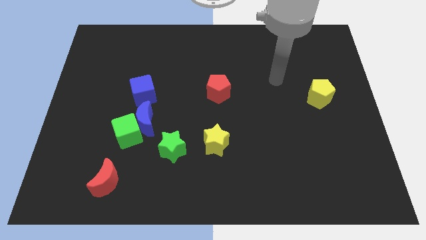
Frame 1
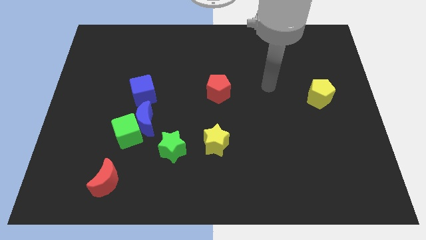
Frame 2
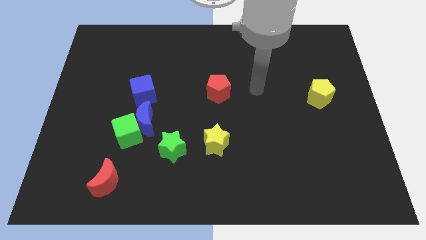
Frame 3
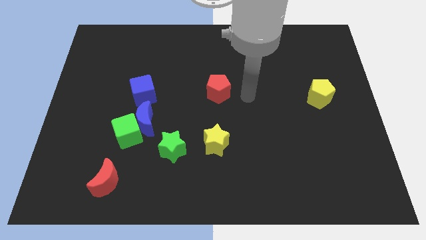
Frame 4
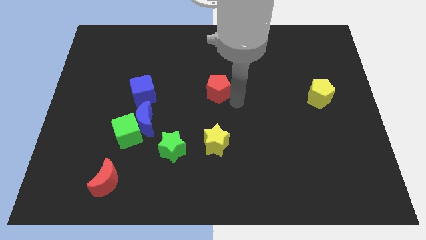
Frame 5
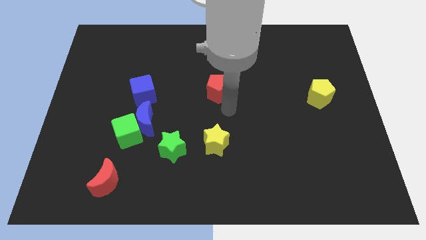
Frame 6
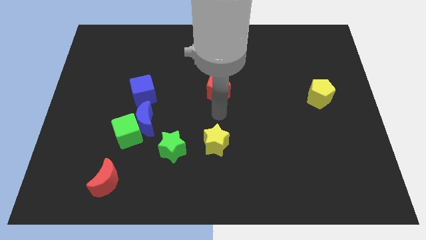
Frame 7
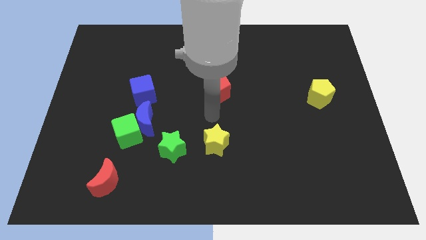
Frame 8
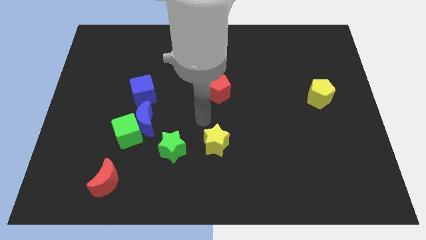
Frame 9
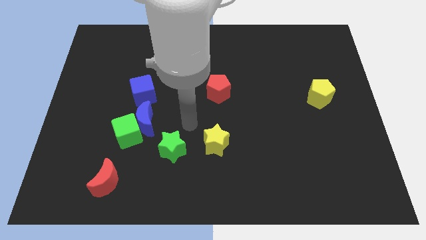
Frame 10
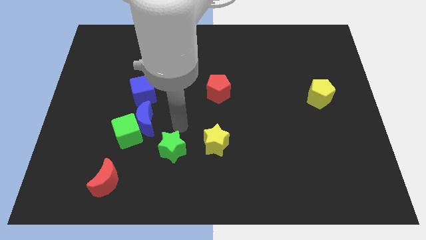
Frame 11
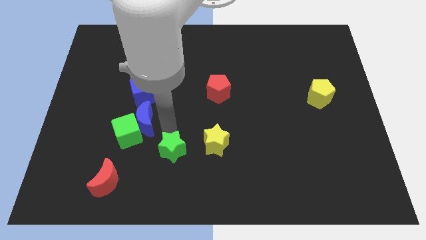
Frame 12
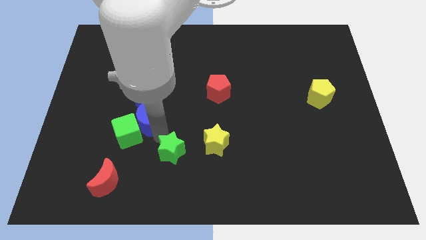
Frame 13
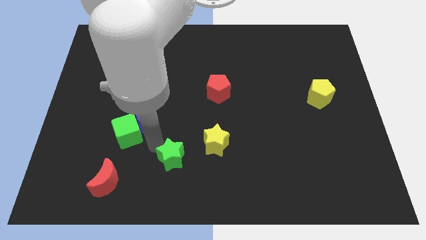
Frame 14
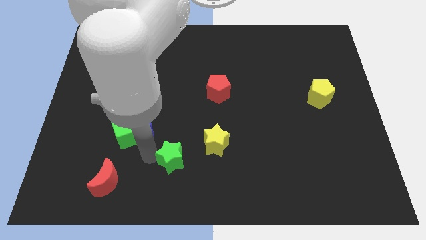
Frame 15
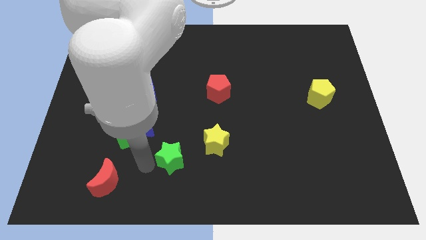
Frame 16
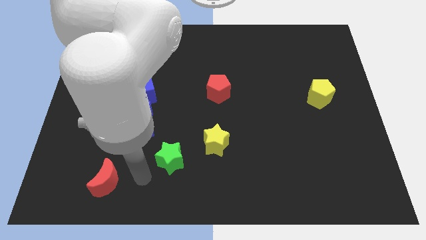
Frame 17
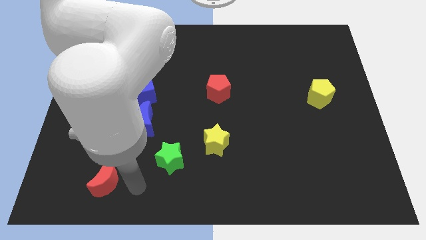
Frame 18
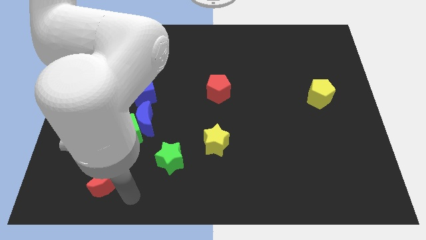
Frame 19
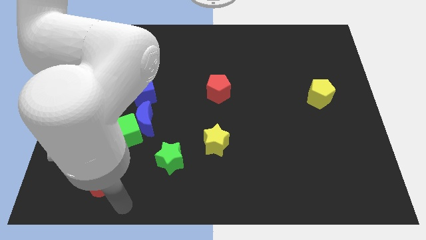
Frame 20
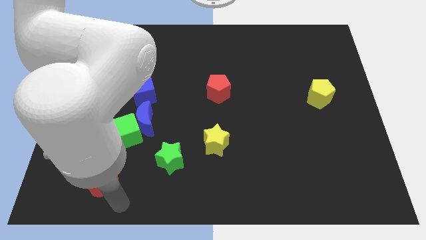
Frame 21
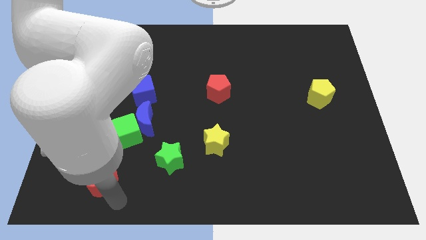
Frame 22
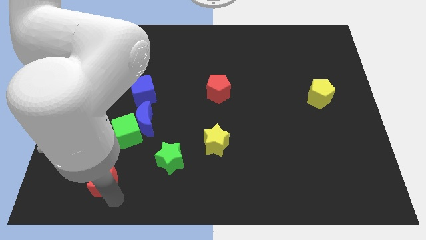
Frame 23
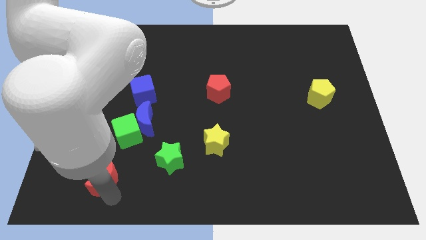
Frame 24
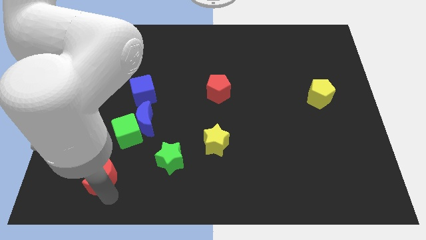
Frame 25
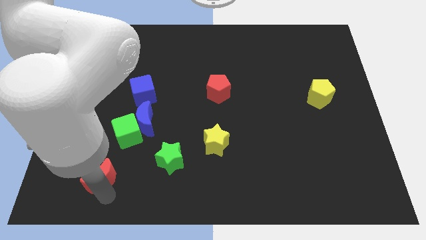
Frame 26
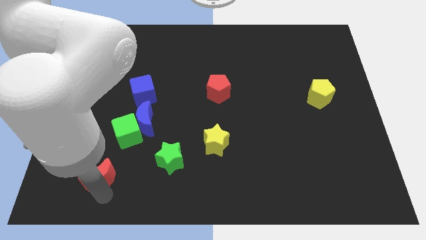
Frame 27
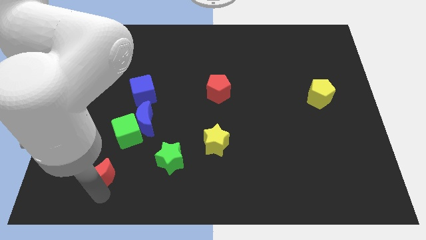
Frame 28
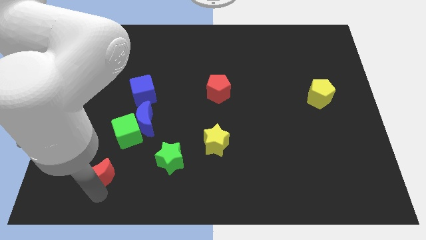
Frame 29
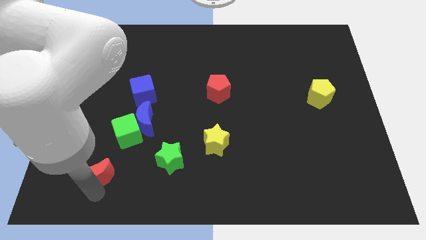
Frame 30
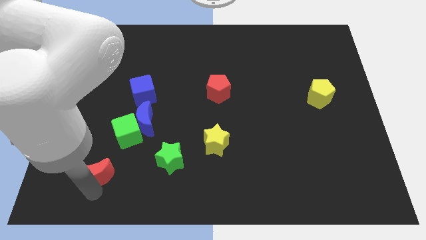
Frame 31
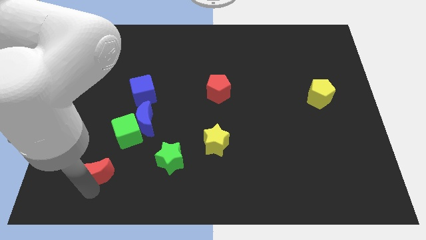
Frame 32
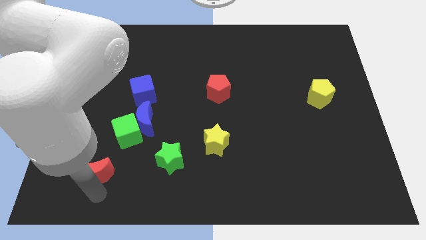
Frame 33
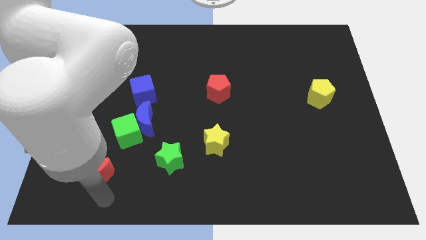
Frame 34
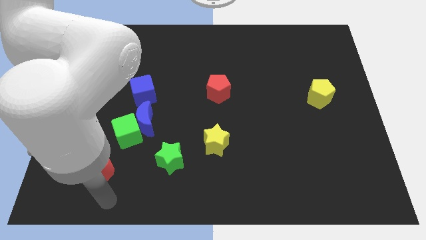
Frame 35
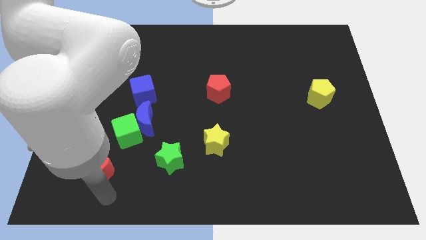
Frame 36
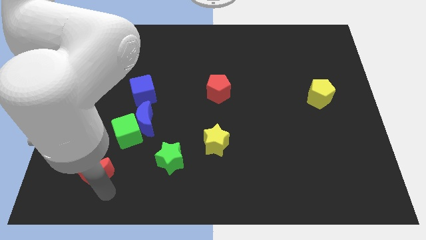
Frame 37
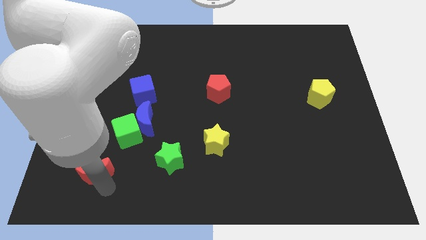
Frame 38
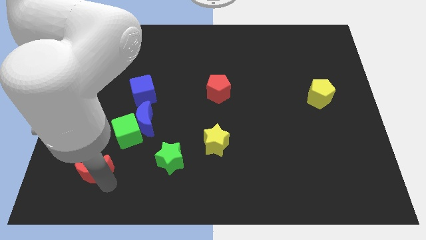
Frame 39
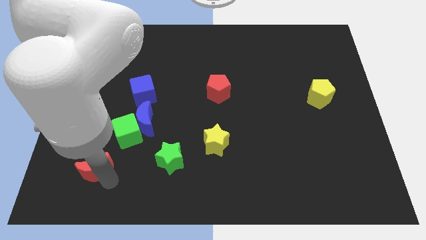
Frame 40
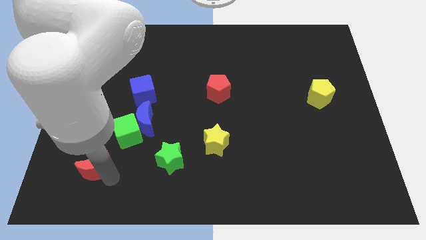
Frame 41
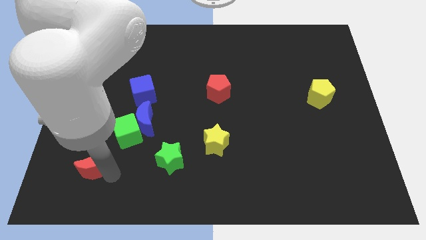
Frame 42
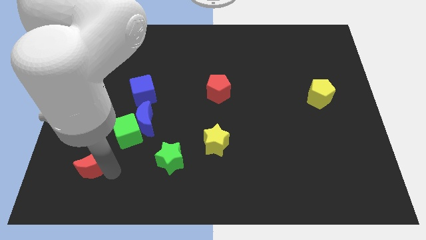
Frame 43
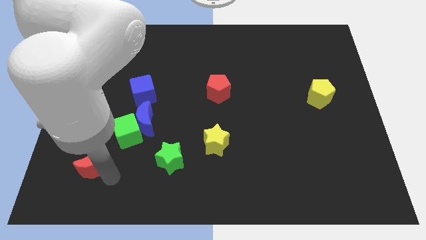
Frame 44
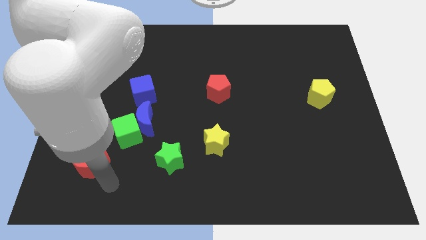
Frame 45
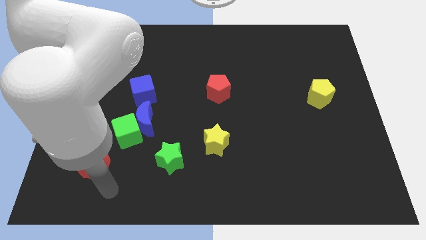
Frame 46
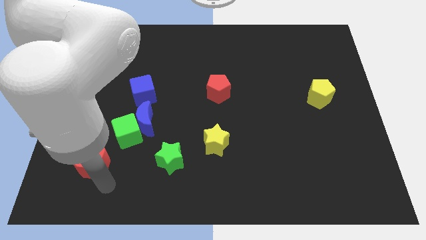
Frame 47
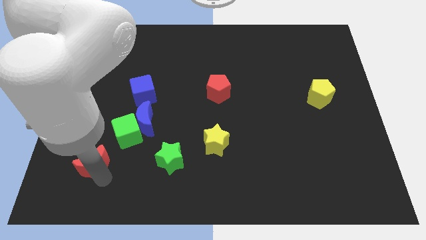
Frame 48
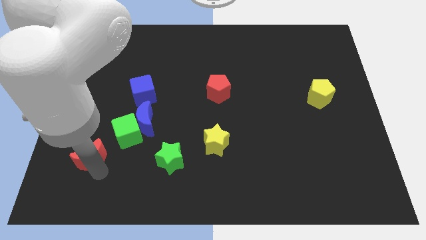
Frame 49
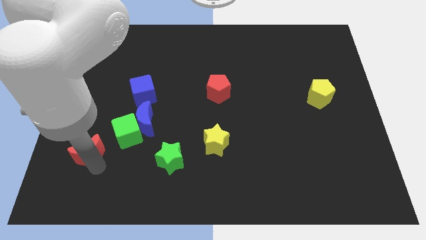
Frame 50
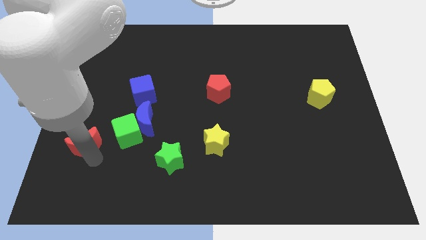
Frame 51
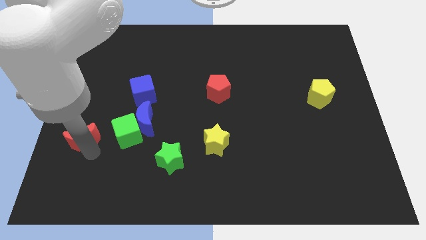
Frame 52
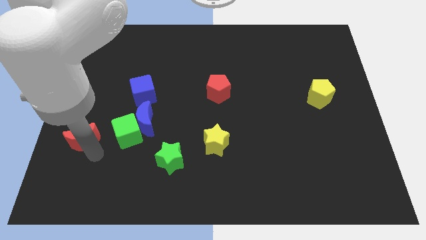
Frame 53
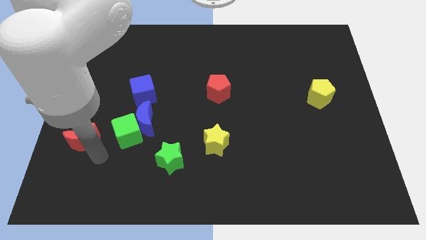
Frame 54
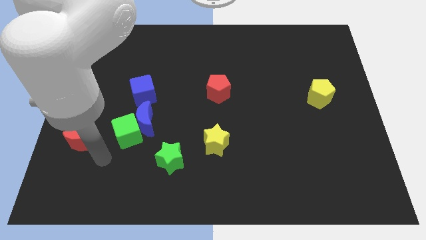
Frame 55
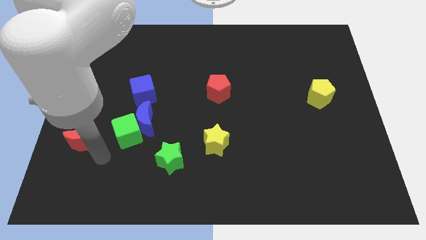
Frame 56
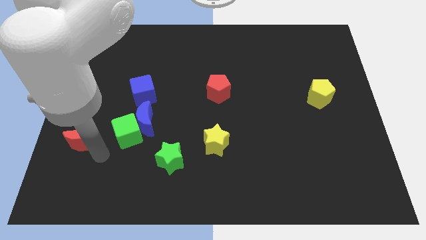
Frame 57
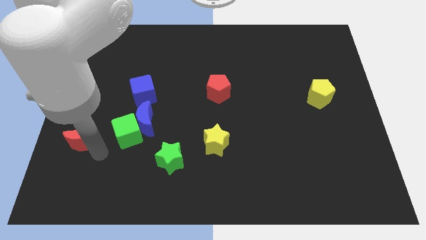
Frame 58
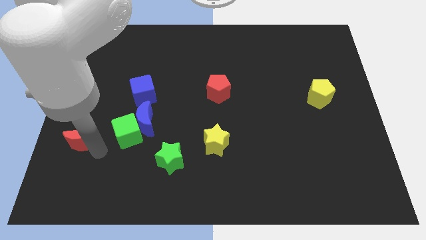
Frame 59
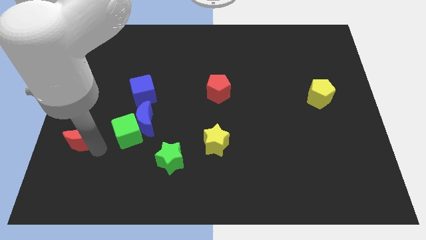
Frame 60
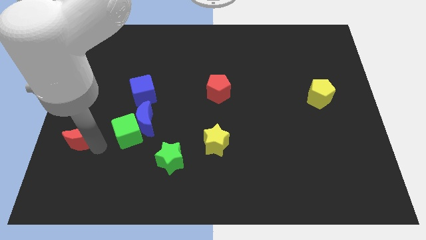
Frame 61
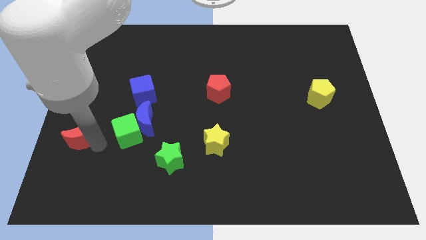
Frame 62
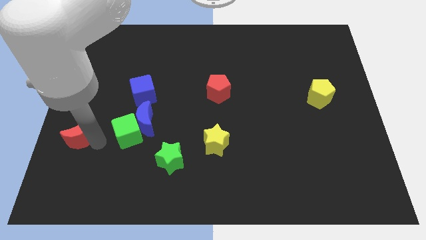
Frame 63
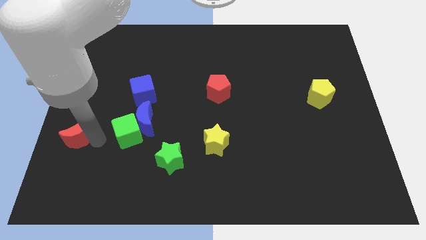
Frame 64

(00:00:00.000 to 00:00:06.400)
move the red moon to the center left

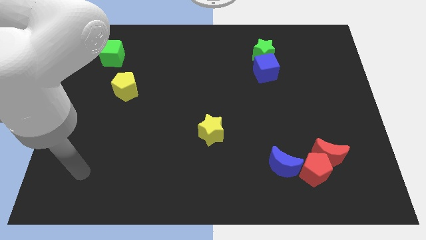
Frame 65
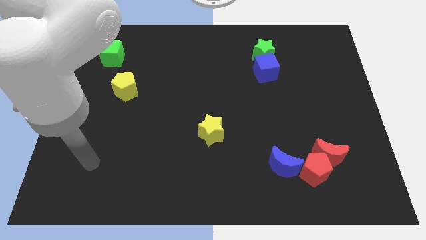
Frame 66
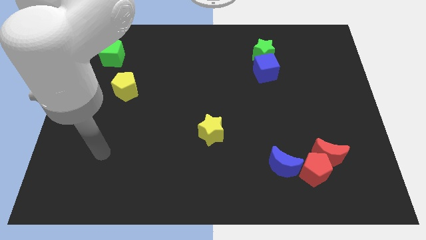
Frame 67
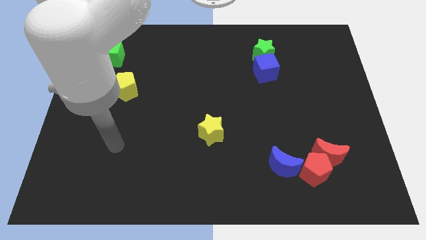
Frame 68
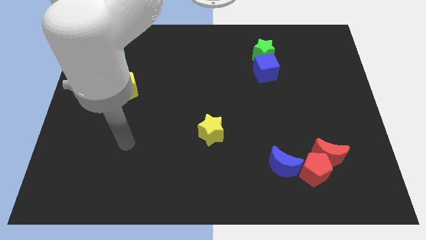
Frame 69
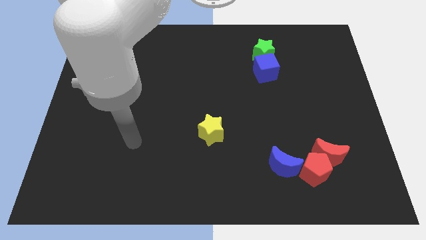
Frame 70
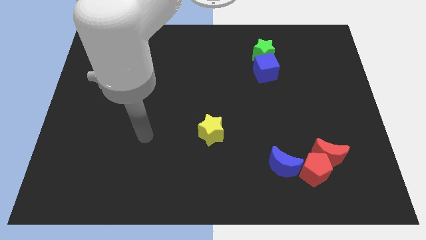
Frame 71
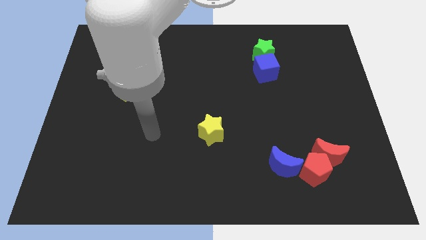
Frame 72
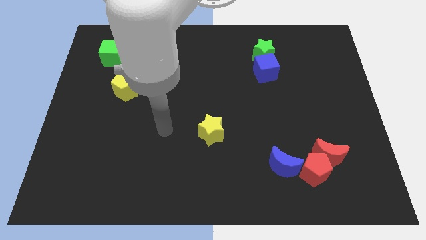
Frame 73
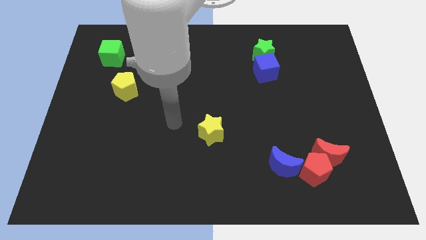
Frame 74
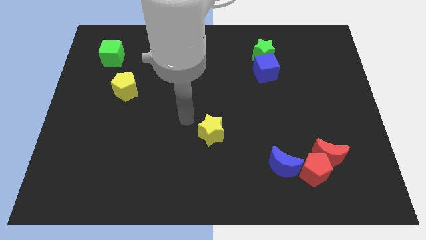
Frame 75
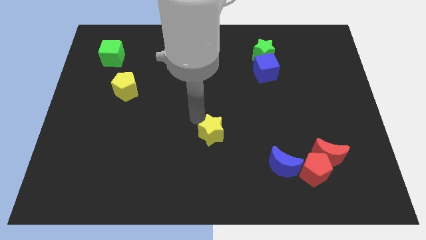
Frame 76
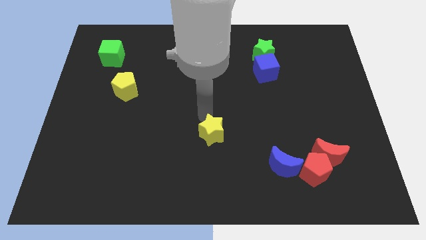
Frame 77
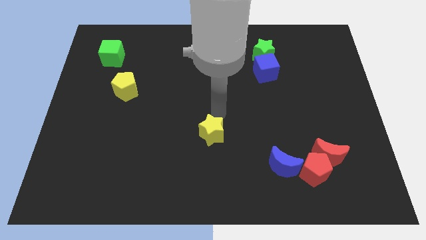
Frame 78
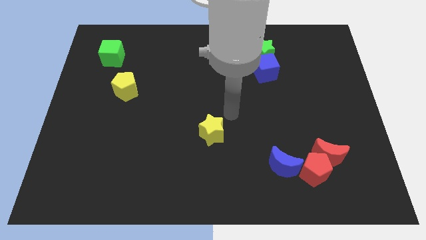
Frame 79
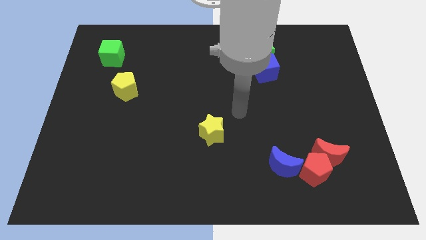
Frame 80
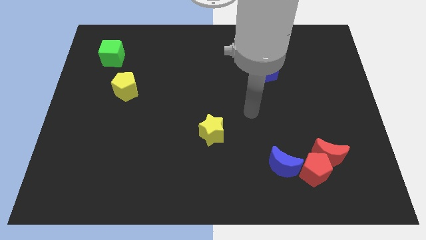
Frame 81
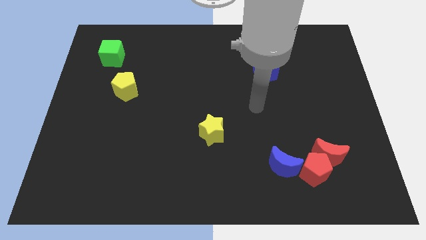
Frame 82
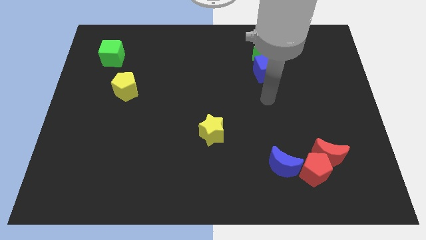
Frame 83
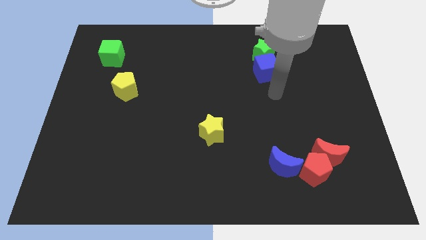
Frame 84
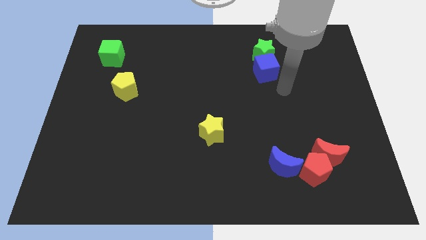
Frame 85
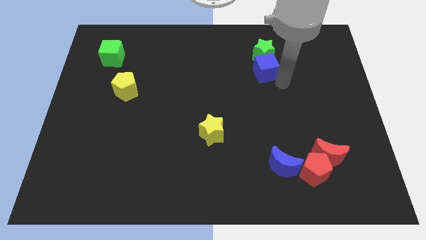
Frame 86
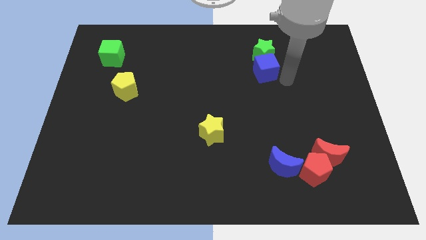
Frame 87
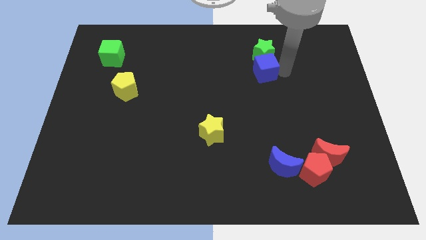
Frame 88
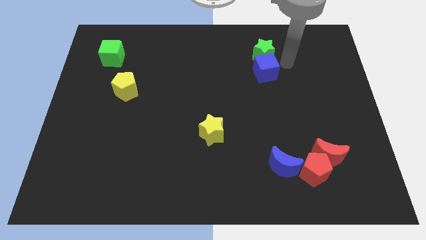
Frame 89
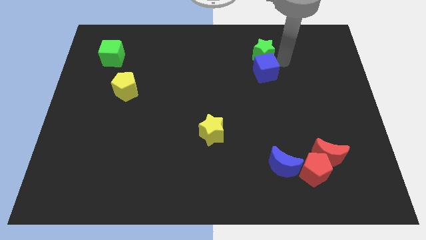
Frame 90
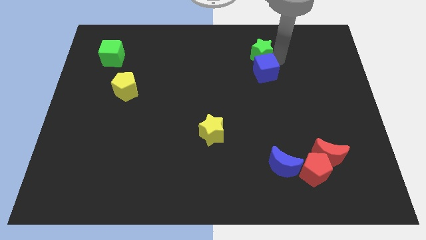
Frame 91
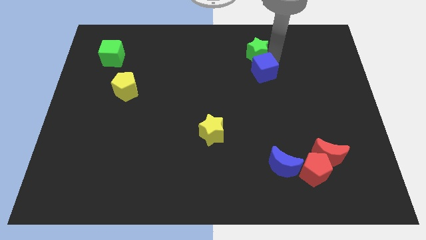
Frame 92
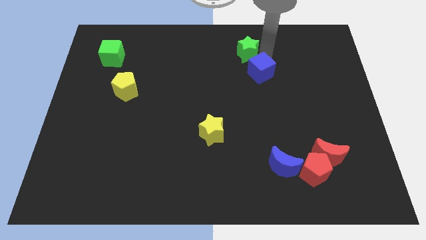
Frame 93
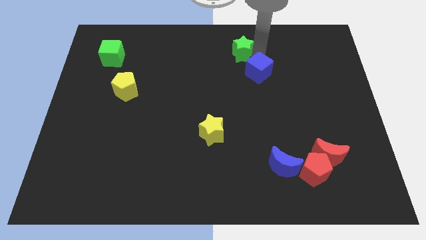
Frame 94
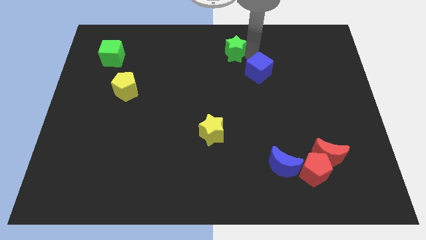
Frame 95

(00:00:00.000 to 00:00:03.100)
push the green star to the towards your base
